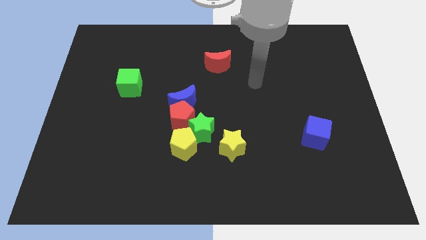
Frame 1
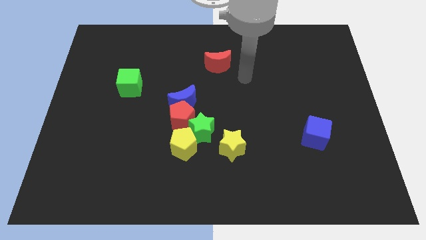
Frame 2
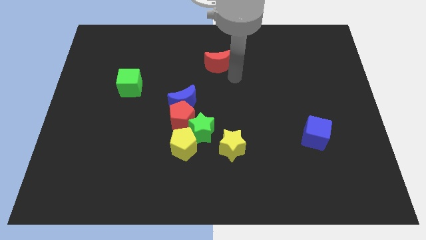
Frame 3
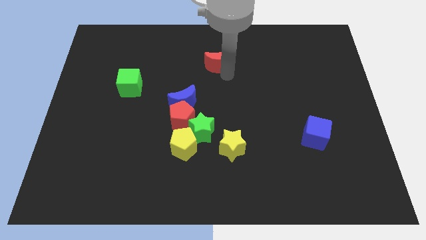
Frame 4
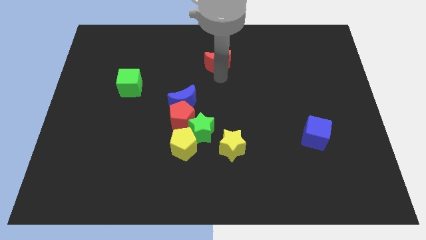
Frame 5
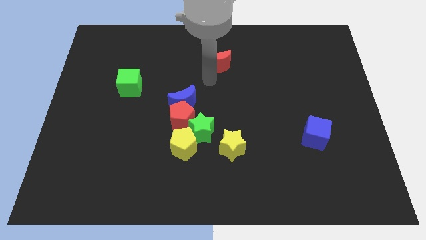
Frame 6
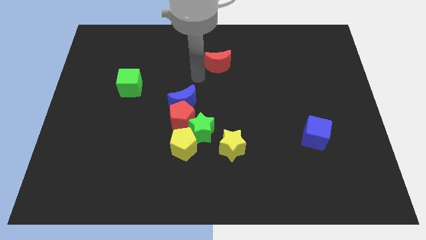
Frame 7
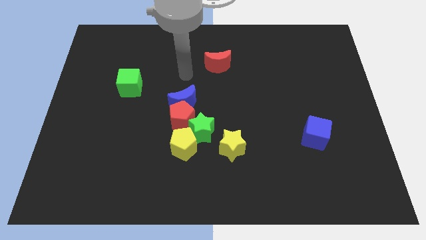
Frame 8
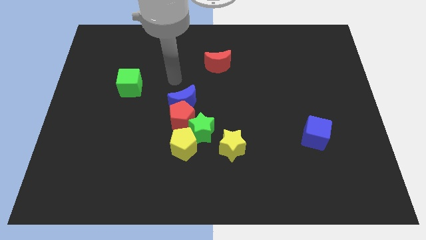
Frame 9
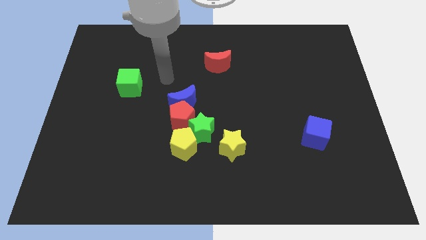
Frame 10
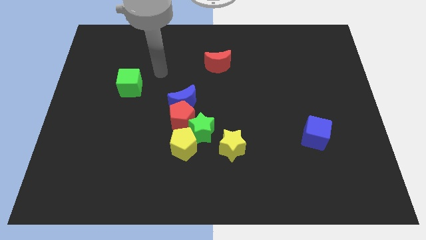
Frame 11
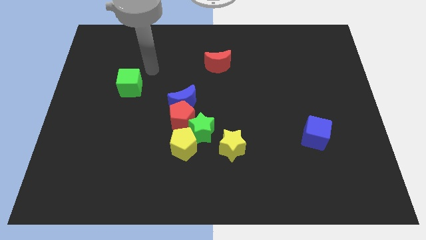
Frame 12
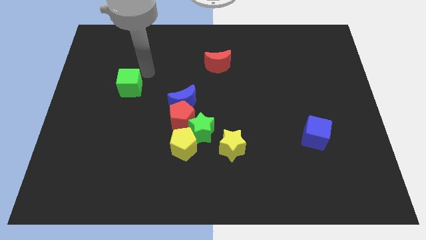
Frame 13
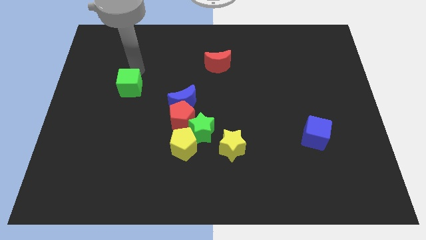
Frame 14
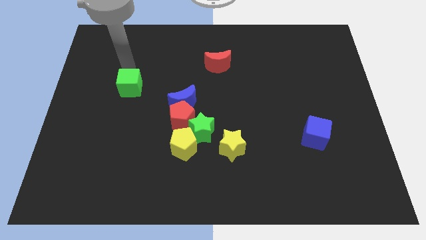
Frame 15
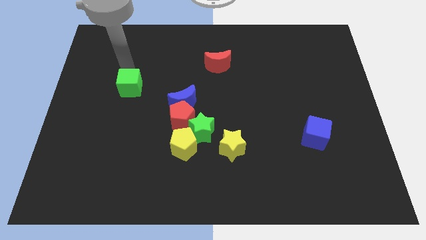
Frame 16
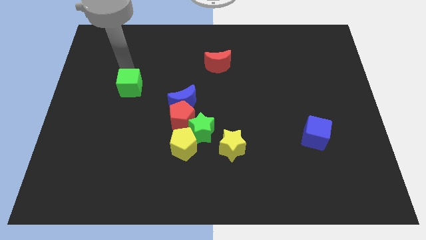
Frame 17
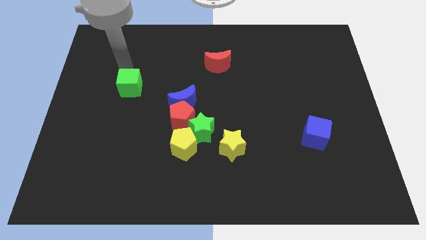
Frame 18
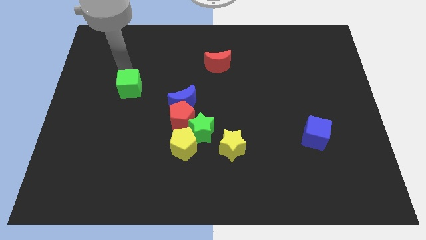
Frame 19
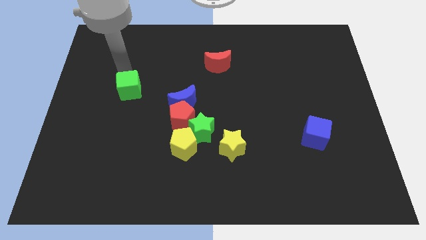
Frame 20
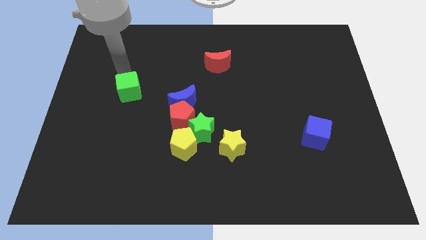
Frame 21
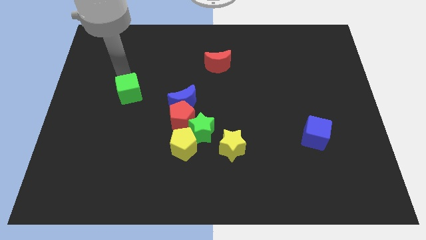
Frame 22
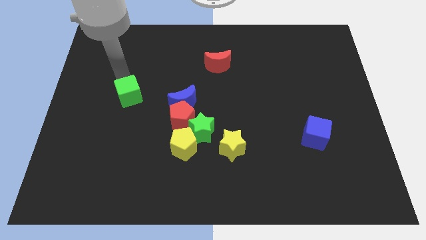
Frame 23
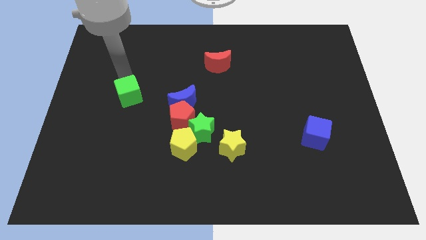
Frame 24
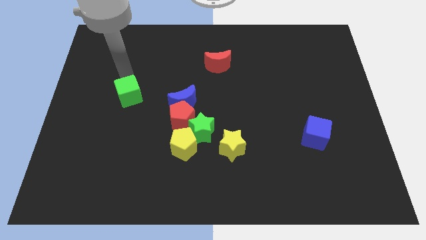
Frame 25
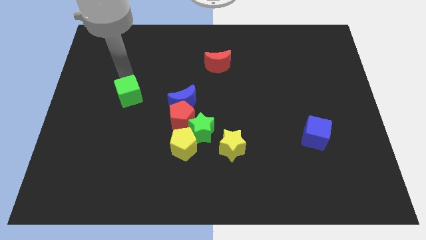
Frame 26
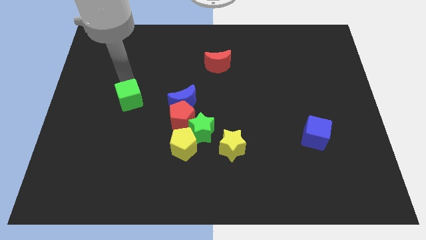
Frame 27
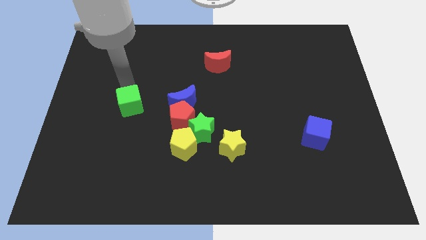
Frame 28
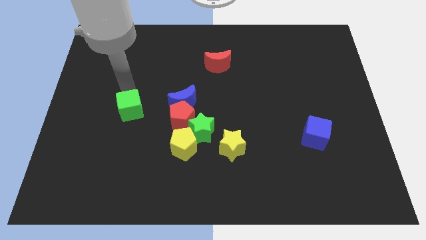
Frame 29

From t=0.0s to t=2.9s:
move the green cube a bit down

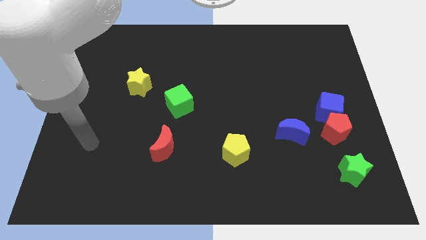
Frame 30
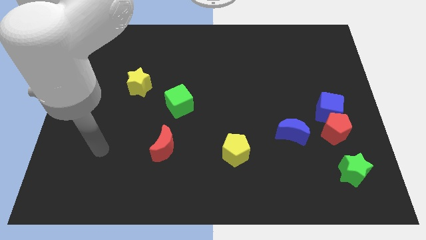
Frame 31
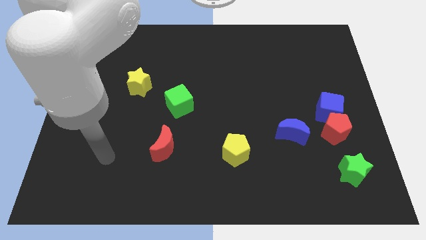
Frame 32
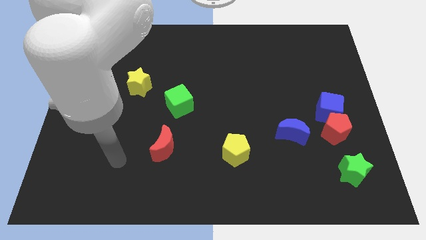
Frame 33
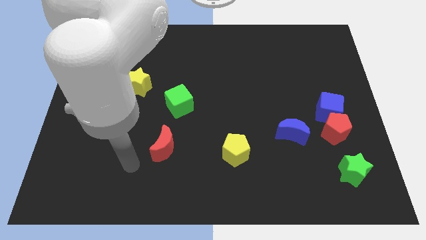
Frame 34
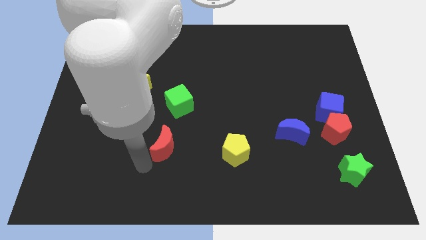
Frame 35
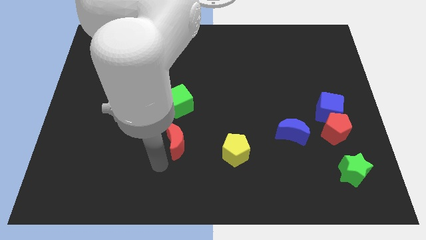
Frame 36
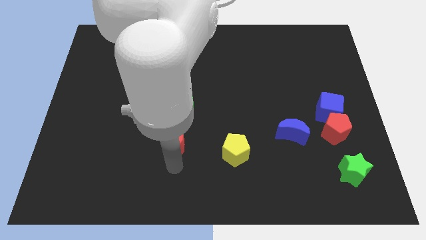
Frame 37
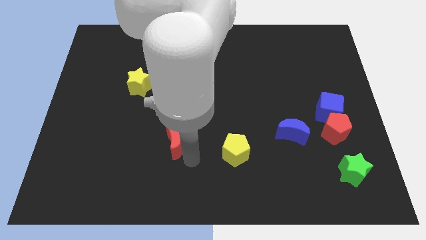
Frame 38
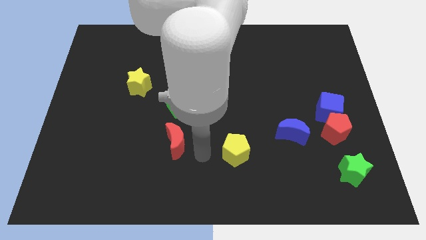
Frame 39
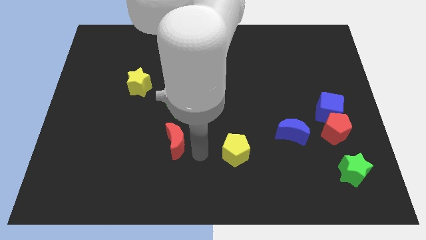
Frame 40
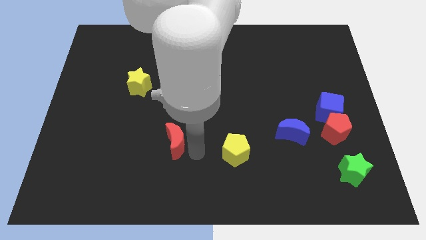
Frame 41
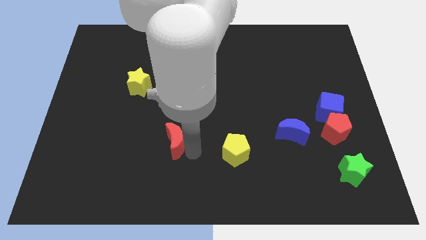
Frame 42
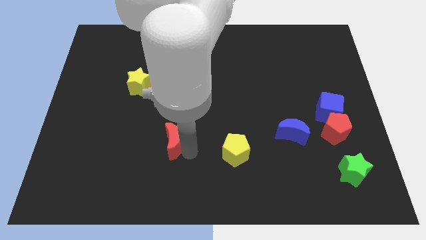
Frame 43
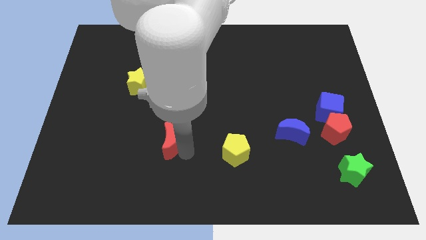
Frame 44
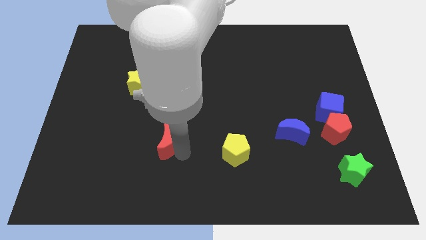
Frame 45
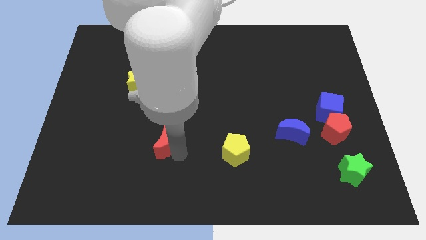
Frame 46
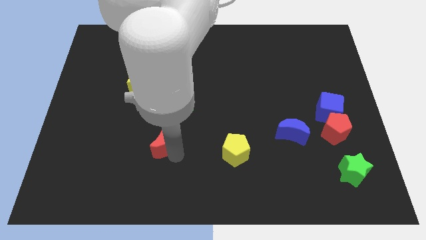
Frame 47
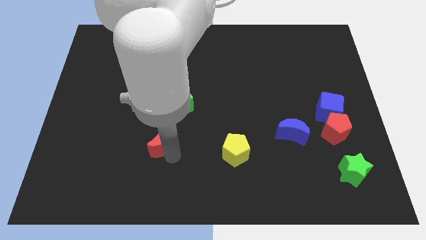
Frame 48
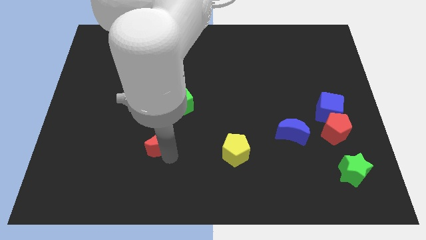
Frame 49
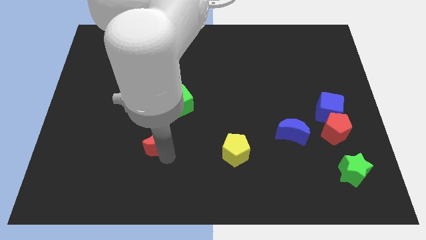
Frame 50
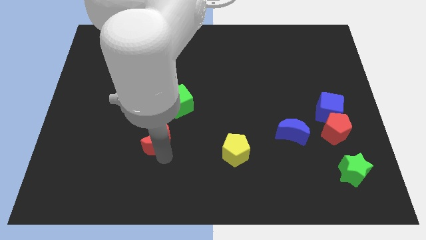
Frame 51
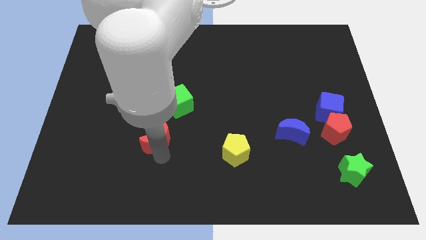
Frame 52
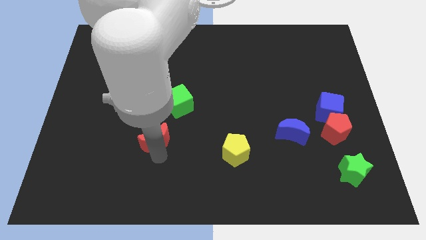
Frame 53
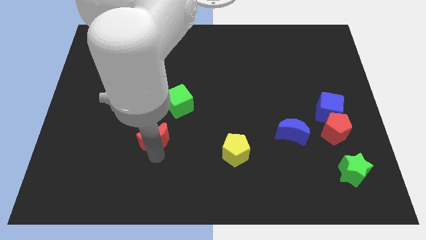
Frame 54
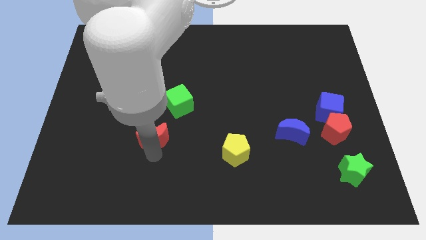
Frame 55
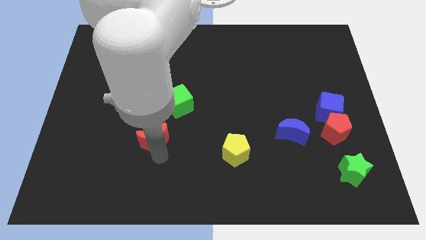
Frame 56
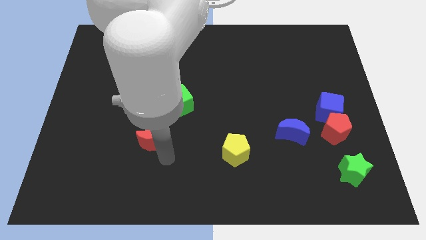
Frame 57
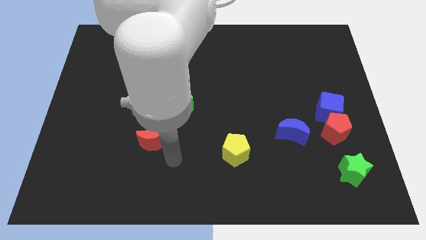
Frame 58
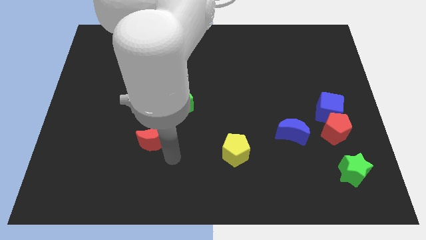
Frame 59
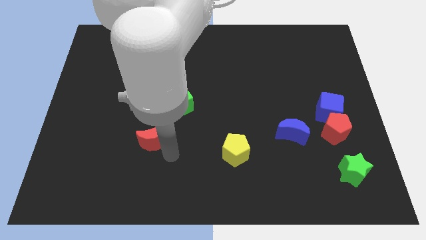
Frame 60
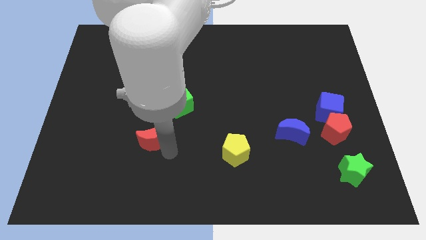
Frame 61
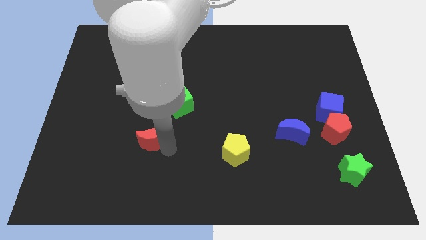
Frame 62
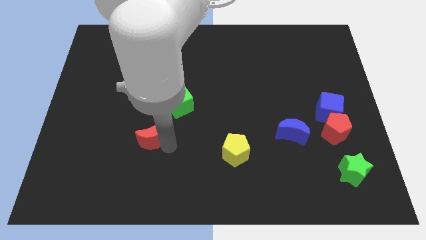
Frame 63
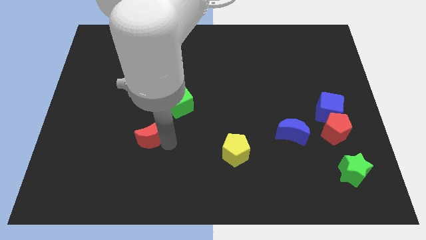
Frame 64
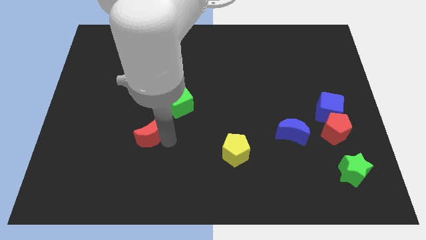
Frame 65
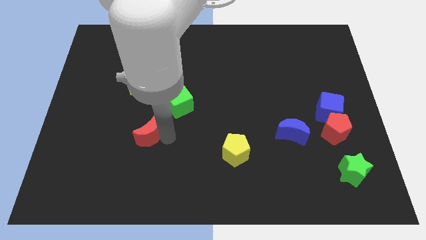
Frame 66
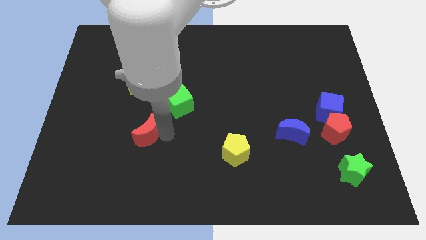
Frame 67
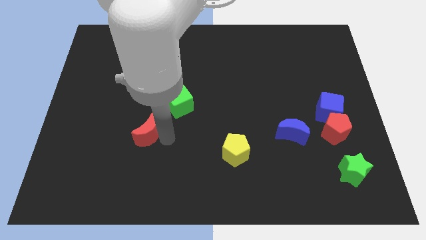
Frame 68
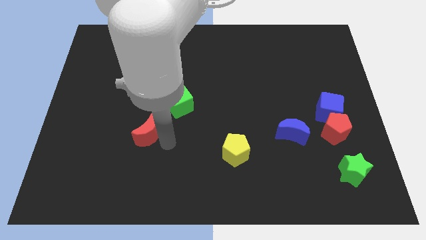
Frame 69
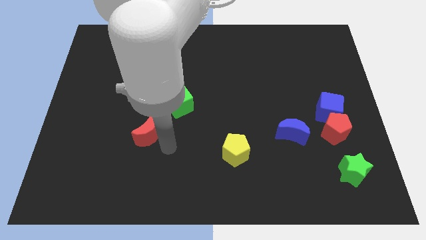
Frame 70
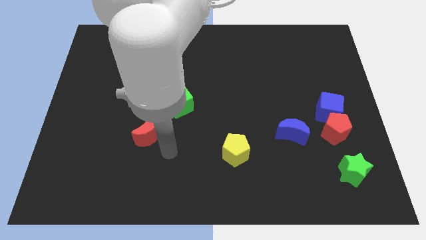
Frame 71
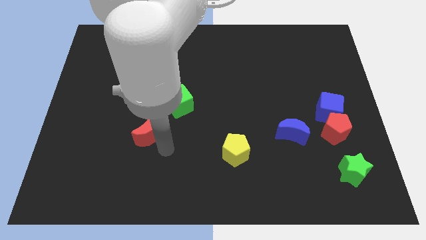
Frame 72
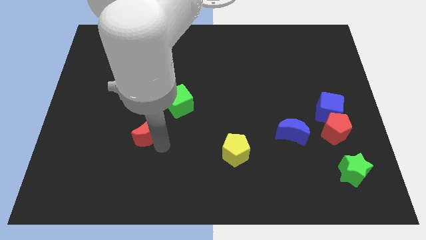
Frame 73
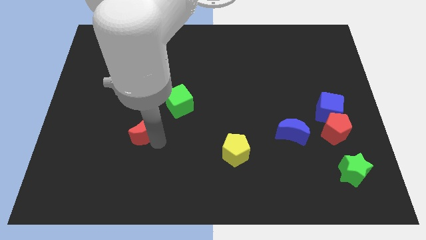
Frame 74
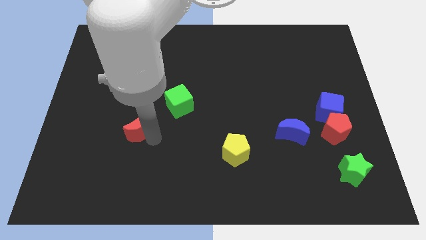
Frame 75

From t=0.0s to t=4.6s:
move the red moon up and left diagonally somewhat

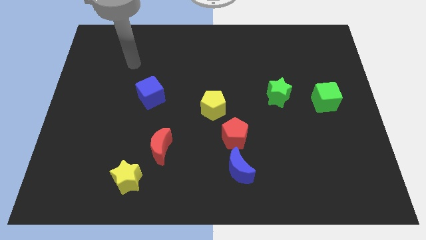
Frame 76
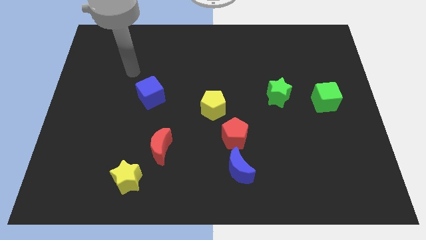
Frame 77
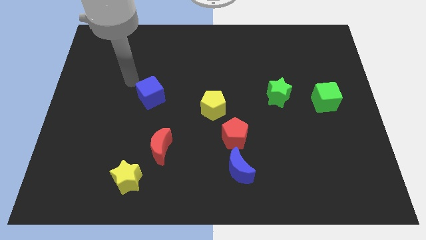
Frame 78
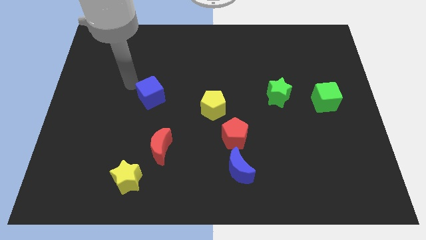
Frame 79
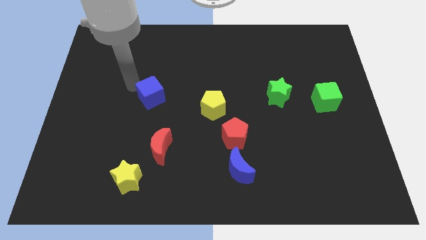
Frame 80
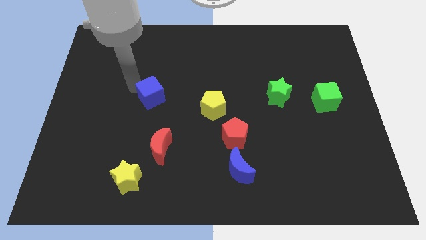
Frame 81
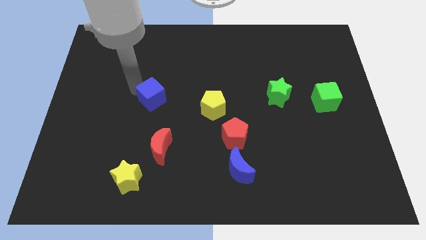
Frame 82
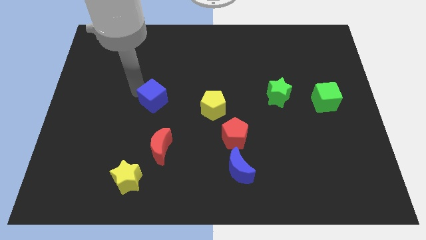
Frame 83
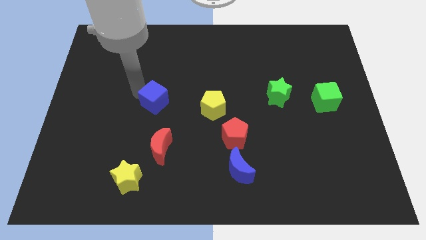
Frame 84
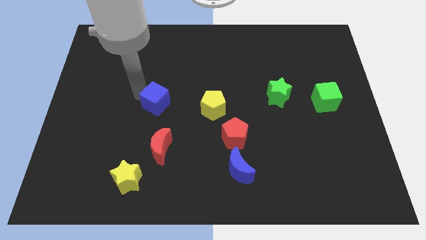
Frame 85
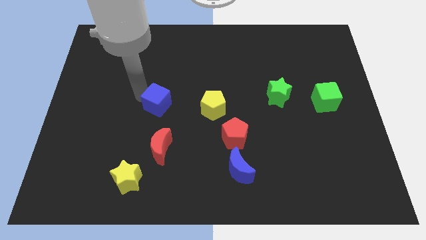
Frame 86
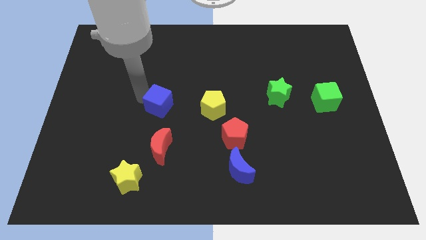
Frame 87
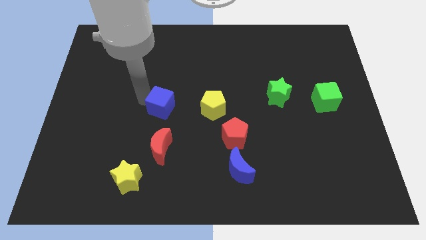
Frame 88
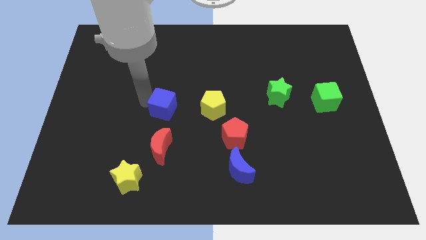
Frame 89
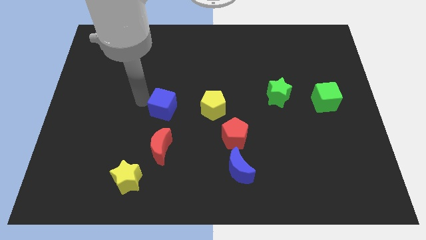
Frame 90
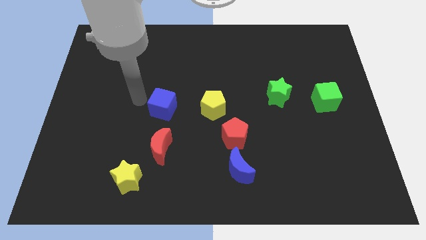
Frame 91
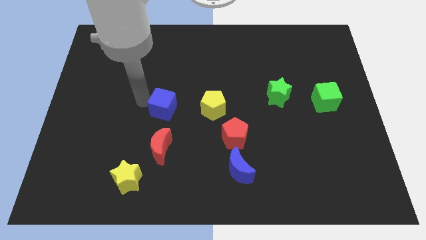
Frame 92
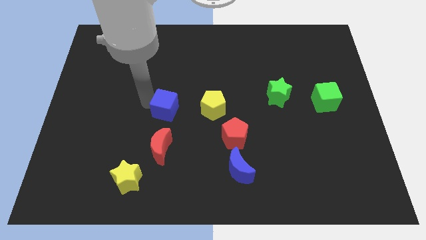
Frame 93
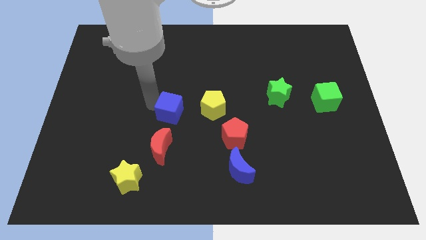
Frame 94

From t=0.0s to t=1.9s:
slightly move the blue cube diagonally downwards and to the right
